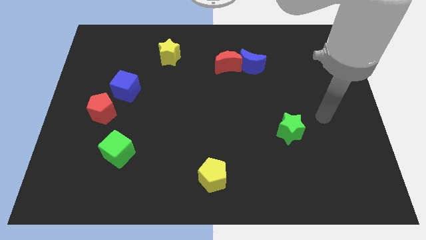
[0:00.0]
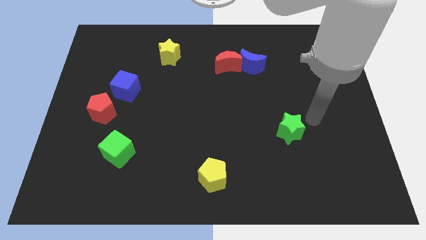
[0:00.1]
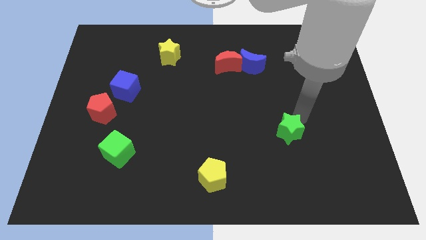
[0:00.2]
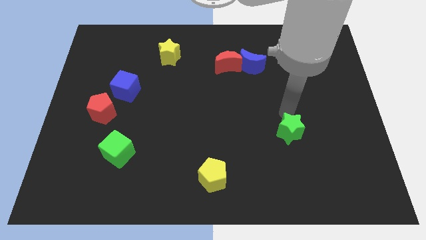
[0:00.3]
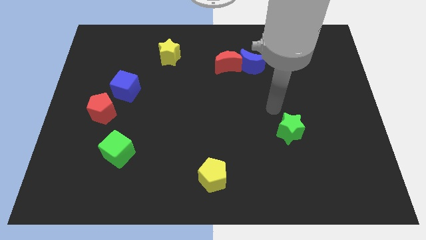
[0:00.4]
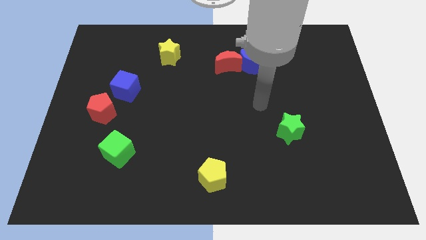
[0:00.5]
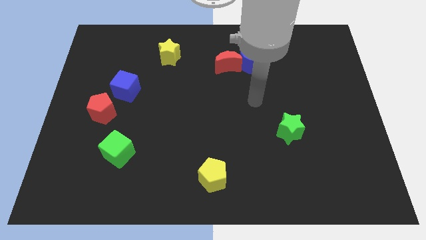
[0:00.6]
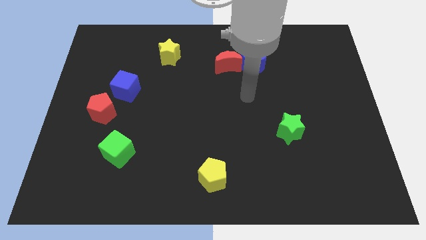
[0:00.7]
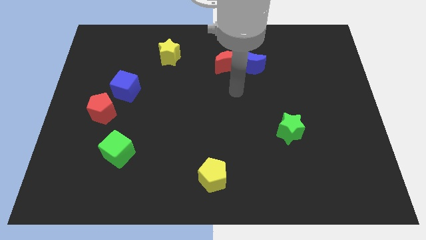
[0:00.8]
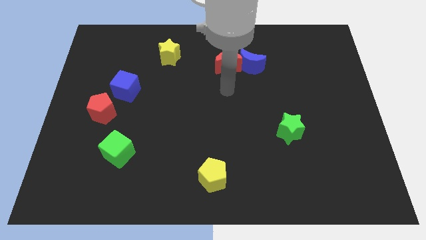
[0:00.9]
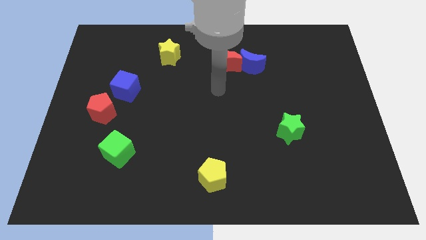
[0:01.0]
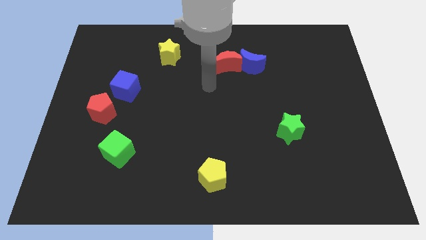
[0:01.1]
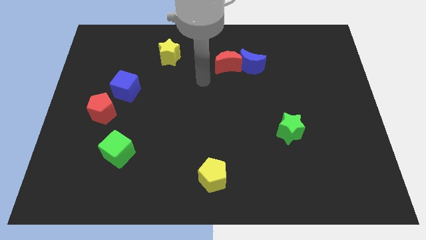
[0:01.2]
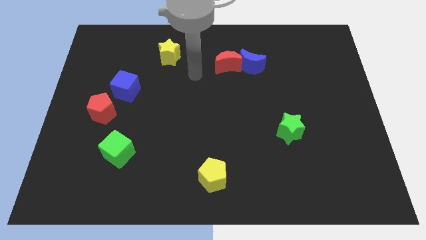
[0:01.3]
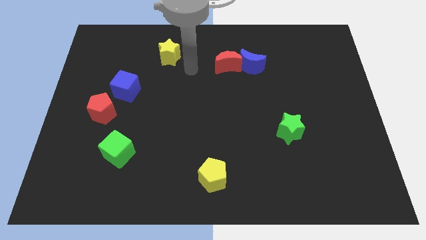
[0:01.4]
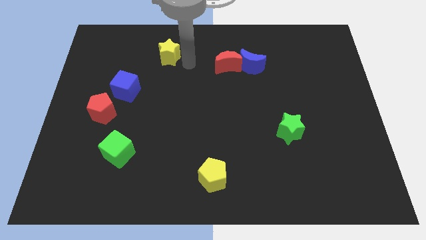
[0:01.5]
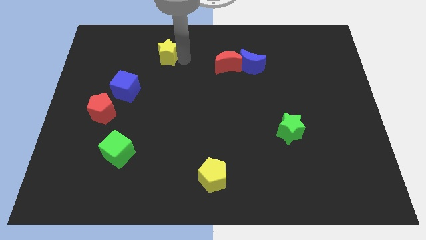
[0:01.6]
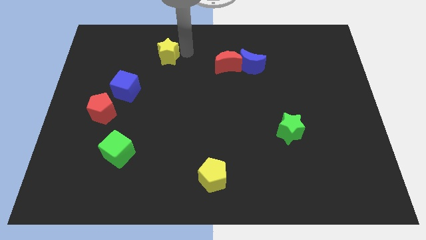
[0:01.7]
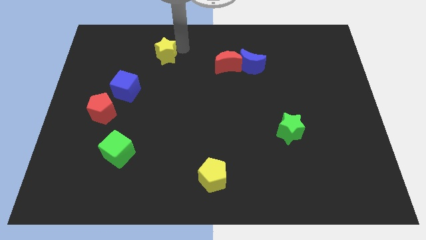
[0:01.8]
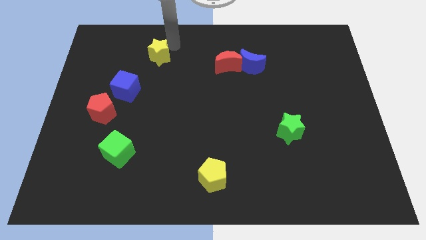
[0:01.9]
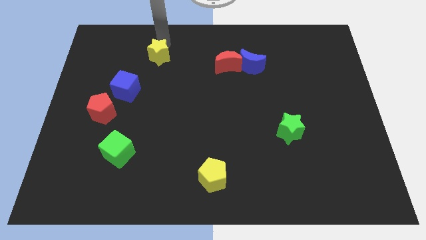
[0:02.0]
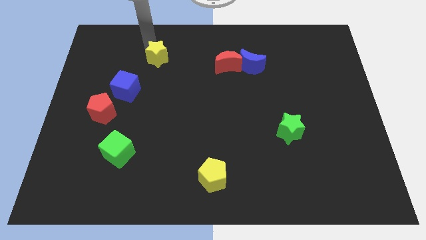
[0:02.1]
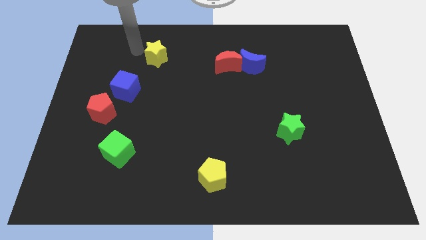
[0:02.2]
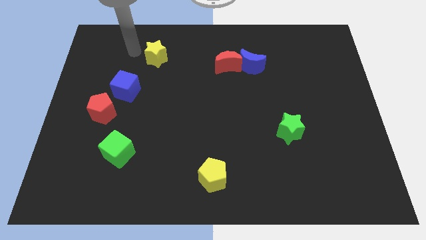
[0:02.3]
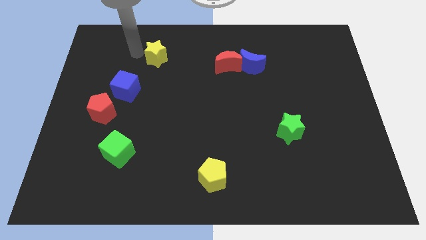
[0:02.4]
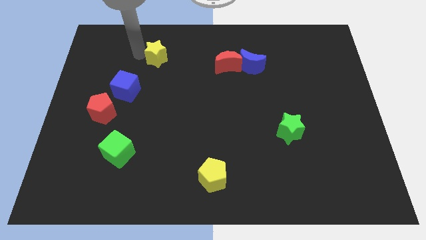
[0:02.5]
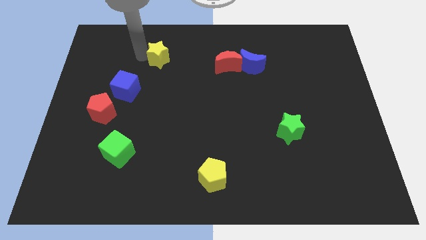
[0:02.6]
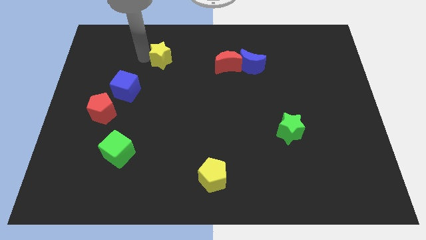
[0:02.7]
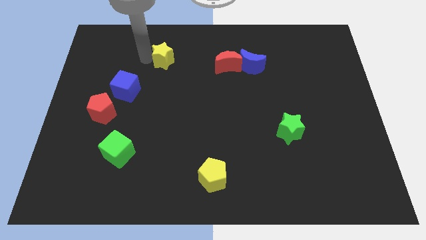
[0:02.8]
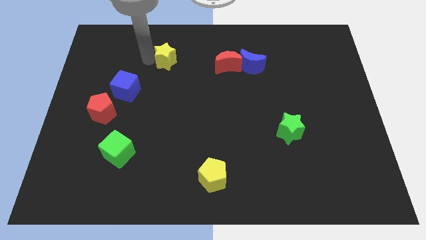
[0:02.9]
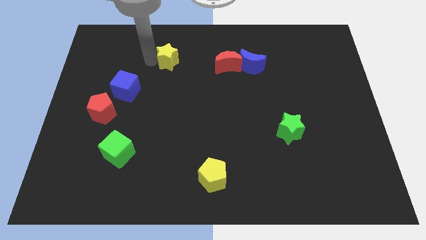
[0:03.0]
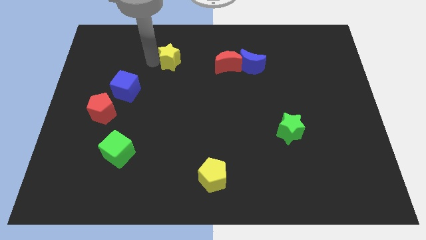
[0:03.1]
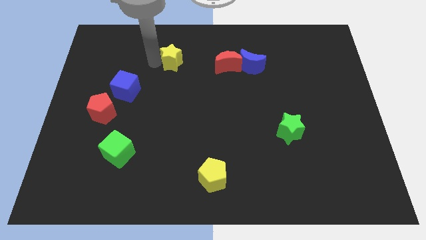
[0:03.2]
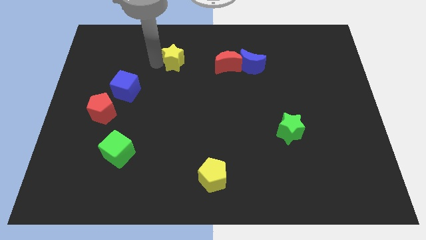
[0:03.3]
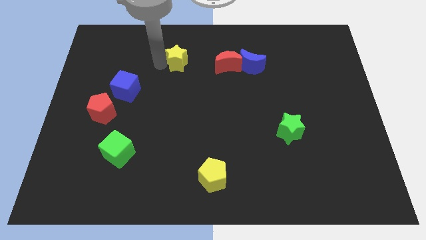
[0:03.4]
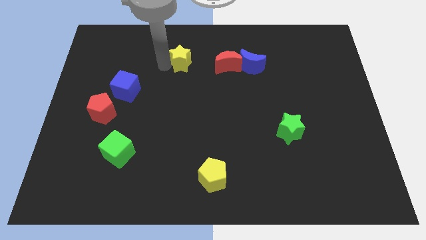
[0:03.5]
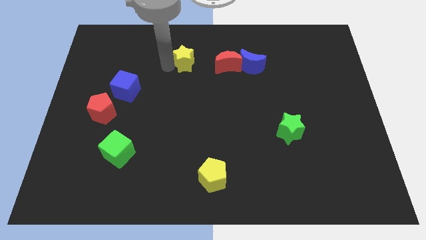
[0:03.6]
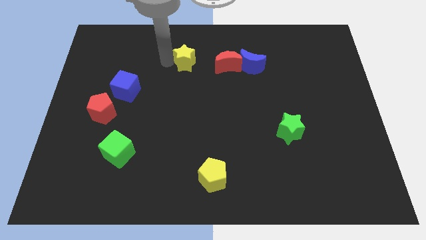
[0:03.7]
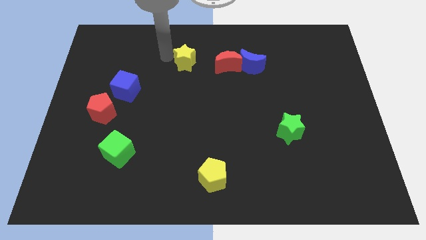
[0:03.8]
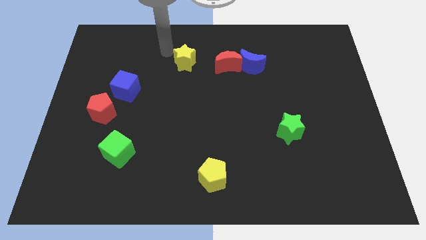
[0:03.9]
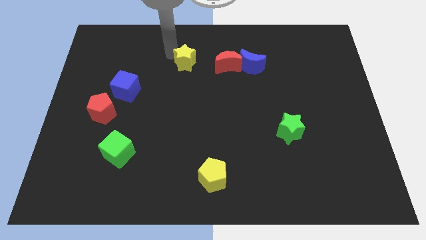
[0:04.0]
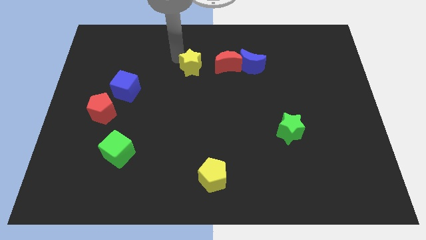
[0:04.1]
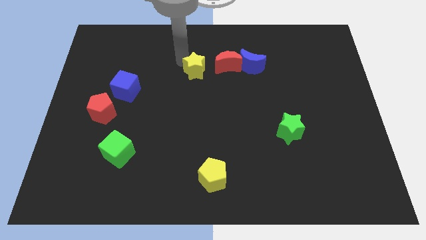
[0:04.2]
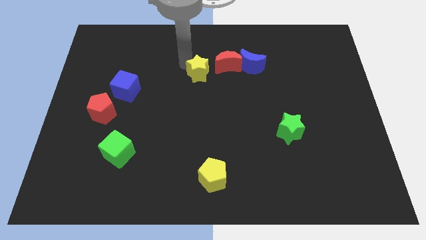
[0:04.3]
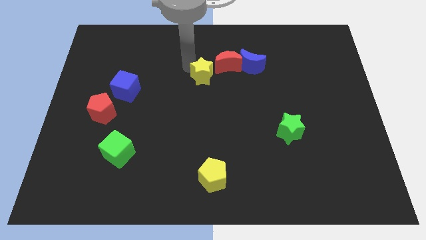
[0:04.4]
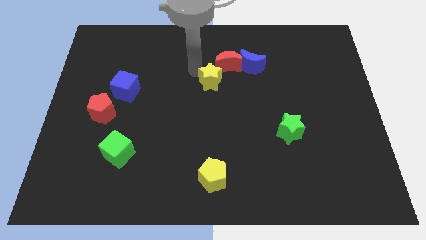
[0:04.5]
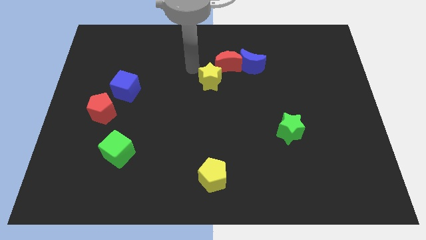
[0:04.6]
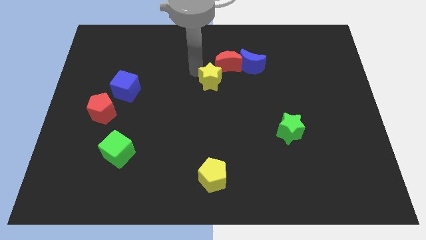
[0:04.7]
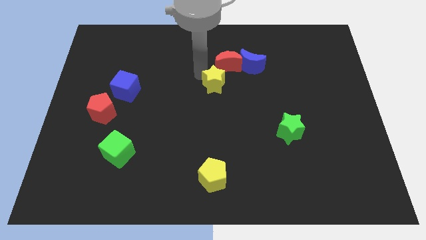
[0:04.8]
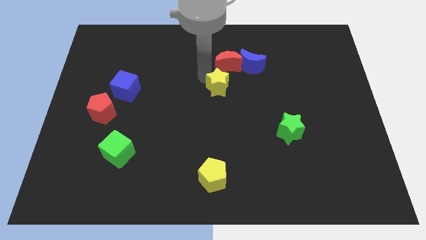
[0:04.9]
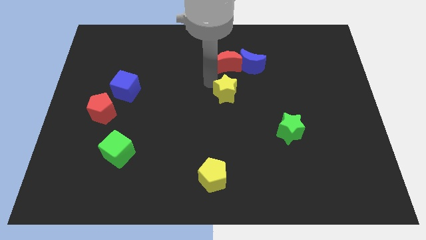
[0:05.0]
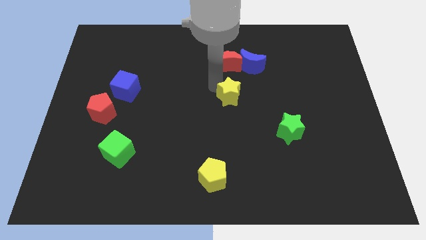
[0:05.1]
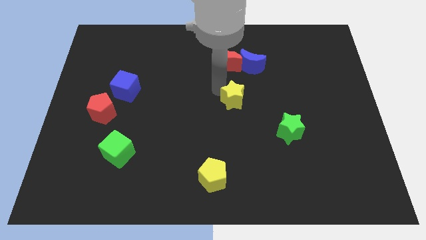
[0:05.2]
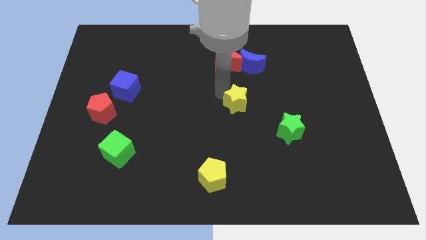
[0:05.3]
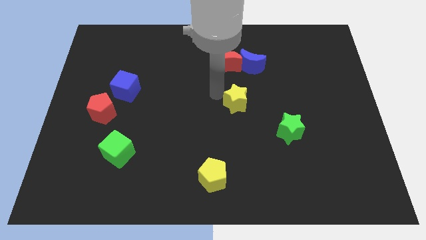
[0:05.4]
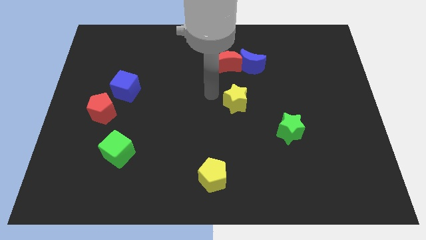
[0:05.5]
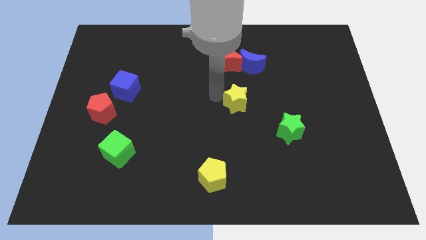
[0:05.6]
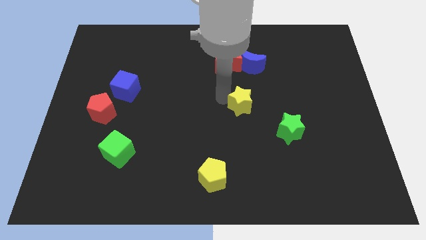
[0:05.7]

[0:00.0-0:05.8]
push the yellow star to the top left of the green star
